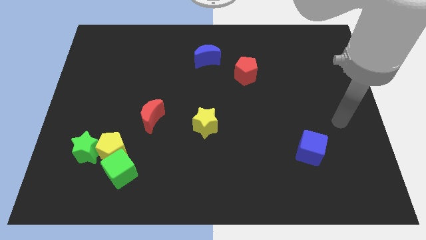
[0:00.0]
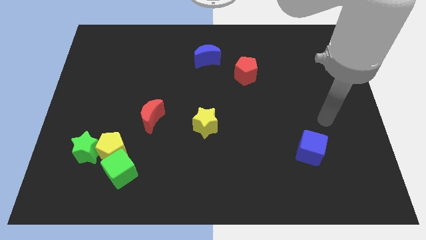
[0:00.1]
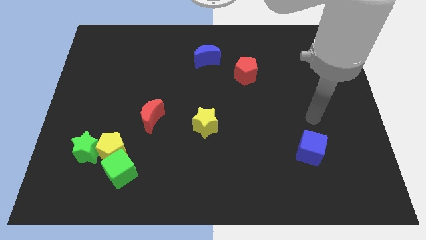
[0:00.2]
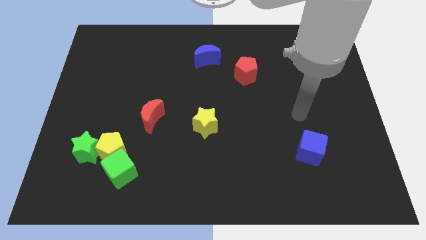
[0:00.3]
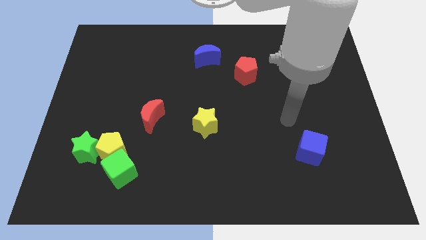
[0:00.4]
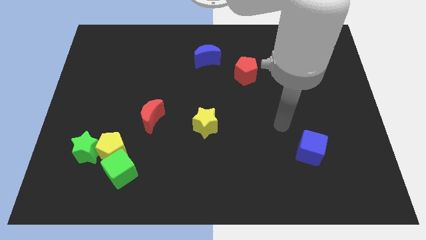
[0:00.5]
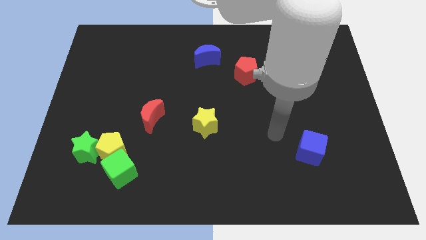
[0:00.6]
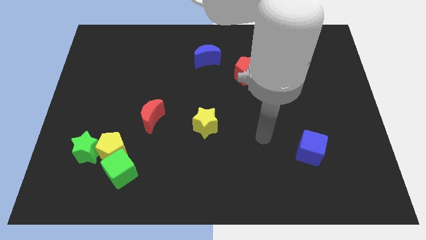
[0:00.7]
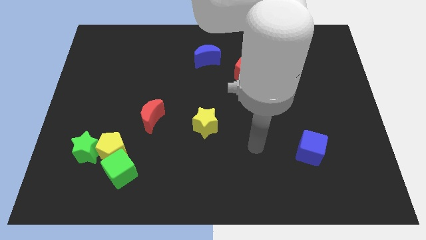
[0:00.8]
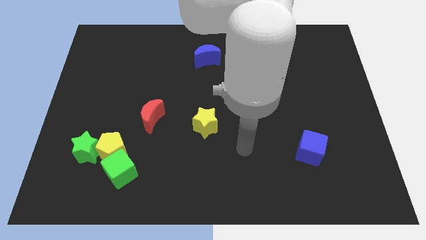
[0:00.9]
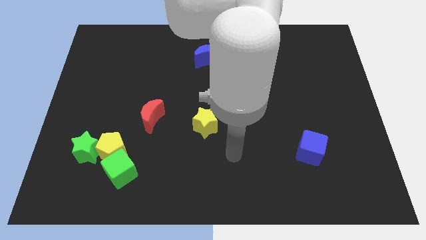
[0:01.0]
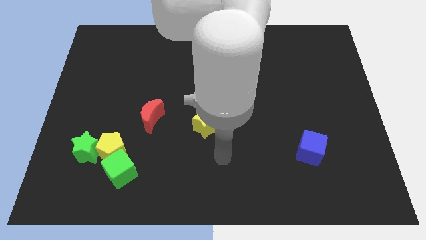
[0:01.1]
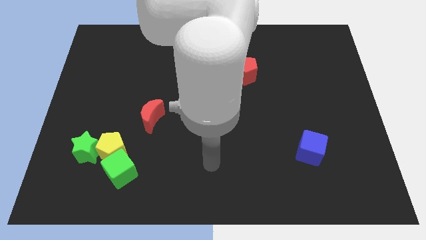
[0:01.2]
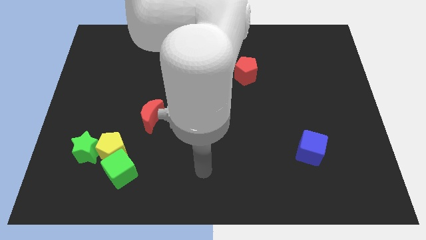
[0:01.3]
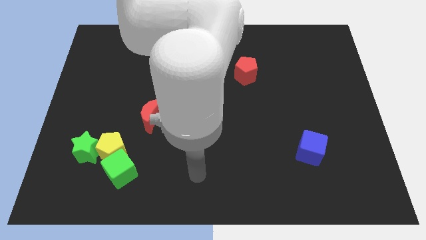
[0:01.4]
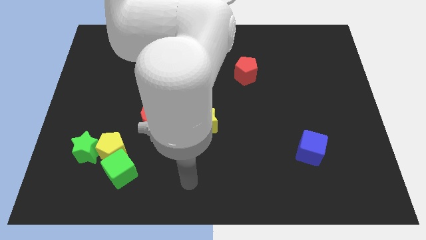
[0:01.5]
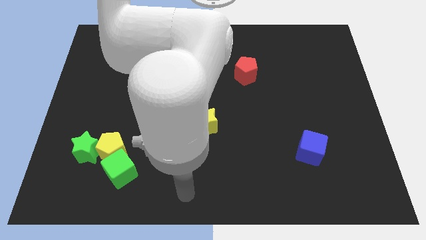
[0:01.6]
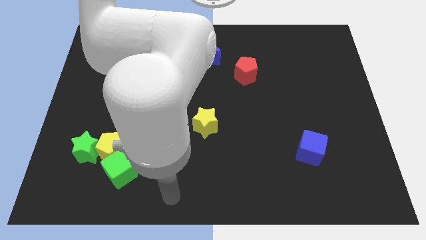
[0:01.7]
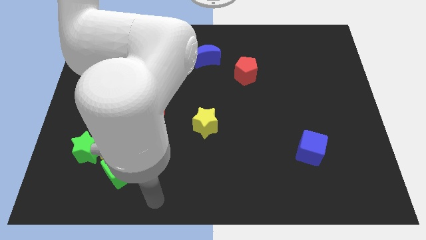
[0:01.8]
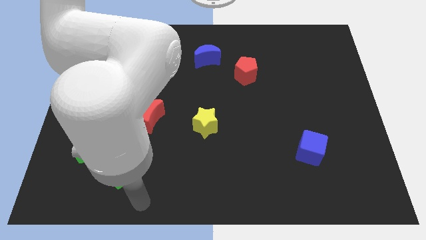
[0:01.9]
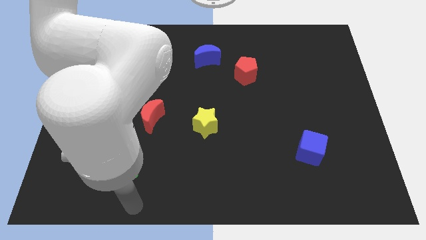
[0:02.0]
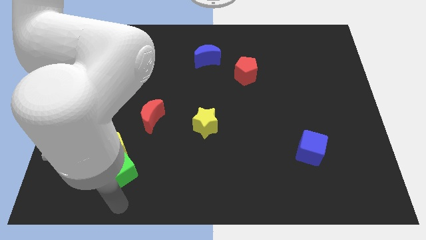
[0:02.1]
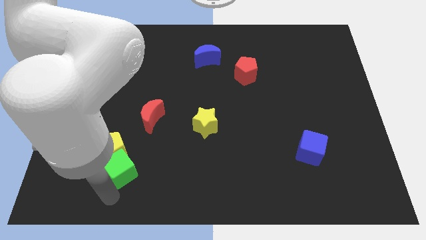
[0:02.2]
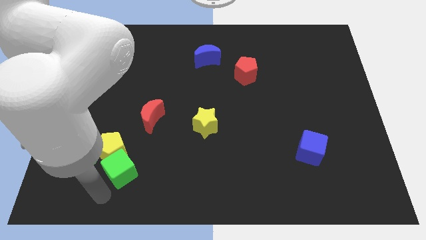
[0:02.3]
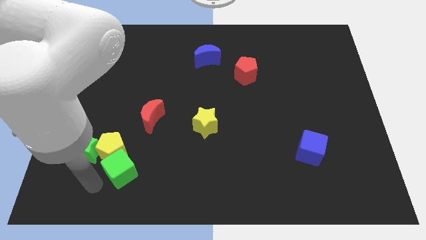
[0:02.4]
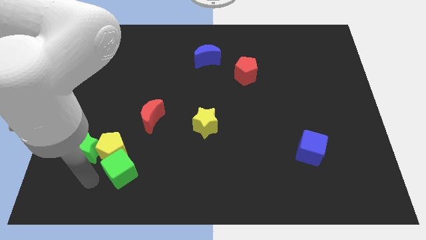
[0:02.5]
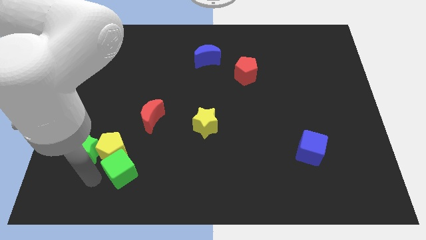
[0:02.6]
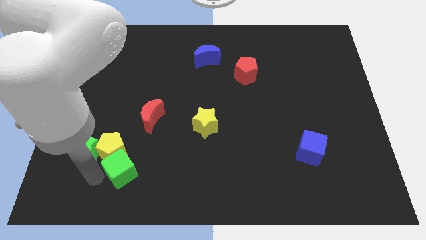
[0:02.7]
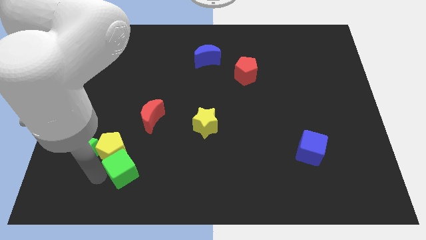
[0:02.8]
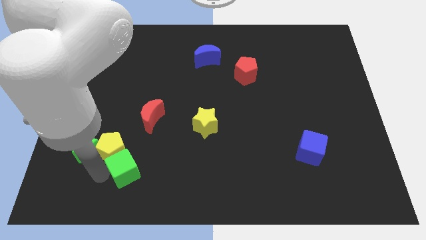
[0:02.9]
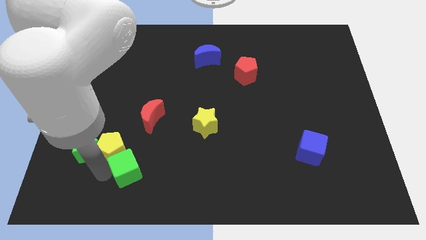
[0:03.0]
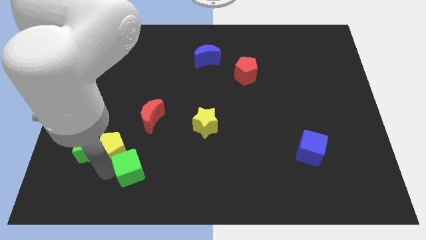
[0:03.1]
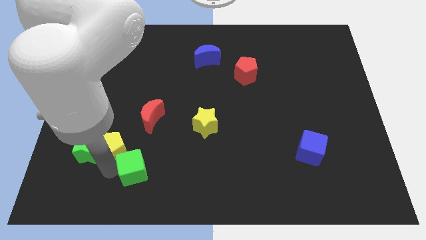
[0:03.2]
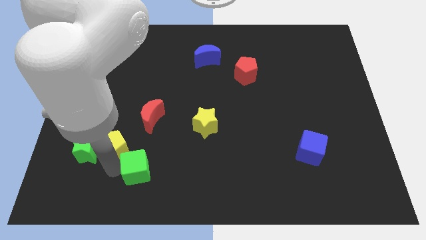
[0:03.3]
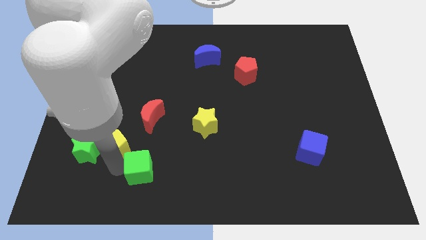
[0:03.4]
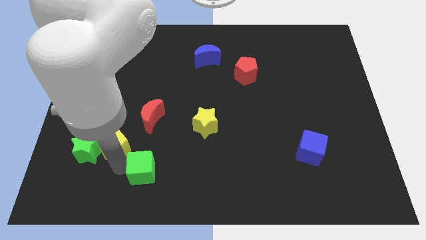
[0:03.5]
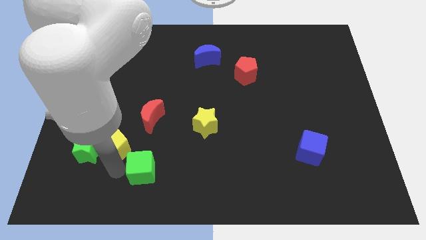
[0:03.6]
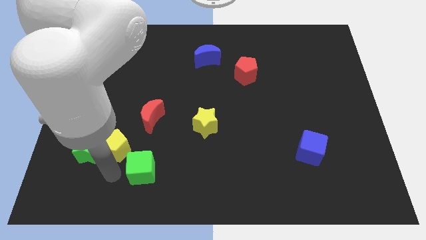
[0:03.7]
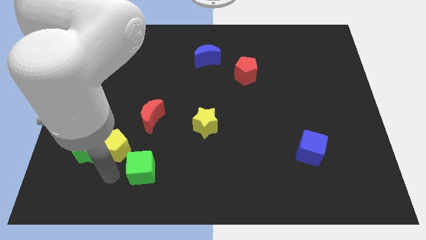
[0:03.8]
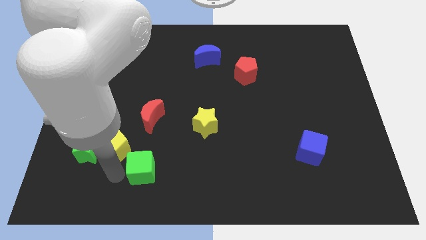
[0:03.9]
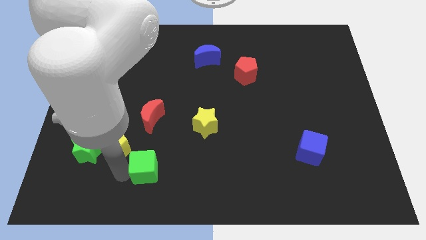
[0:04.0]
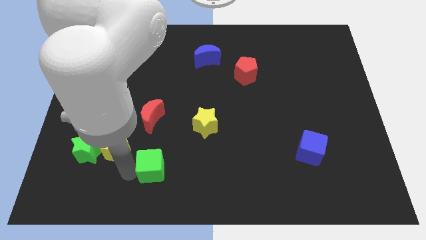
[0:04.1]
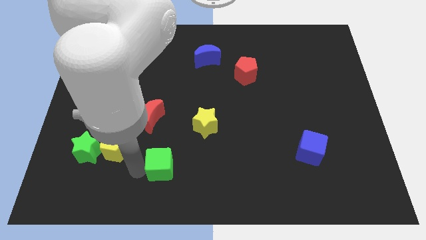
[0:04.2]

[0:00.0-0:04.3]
slide the green cube a little bit to the right

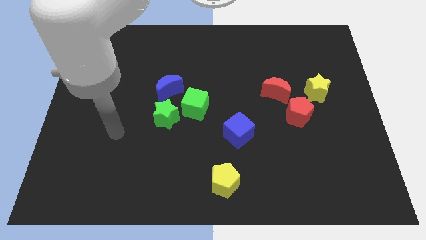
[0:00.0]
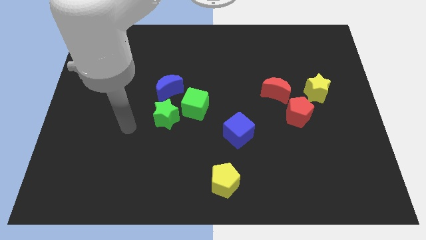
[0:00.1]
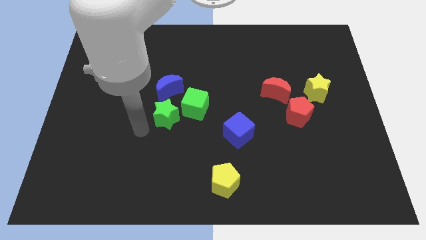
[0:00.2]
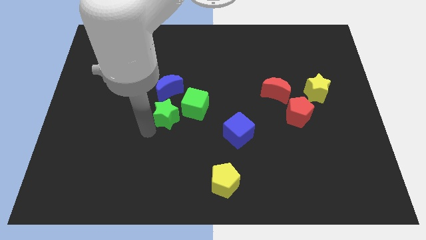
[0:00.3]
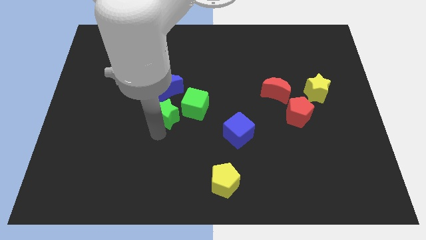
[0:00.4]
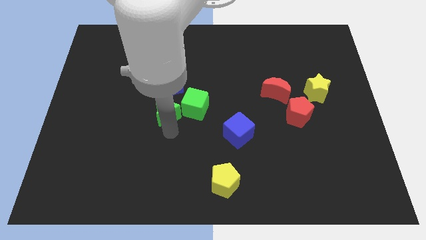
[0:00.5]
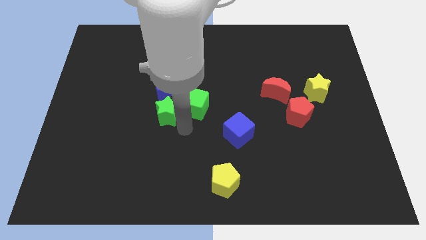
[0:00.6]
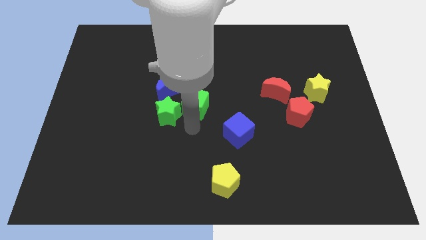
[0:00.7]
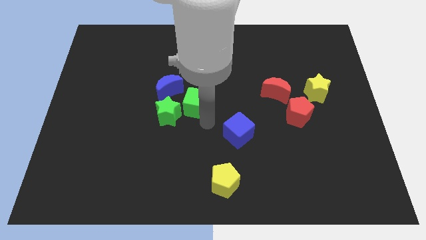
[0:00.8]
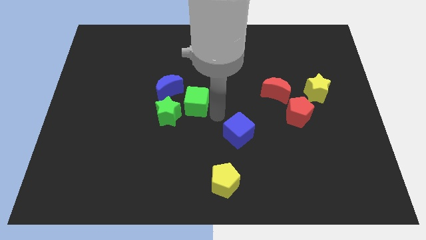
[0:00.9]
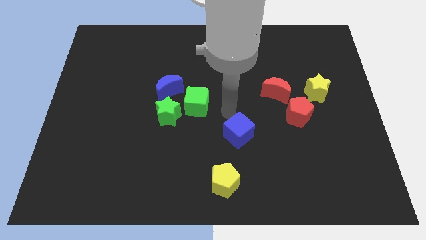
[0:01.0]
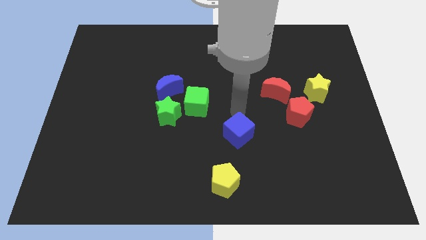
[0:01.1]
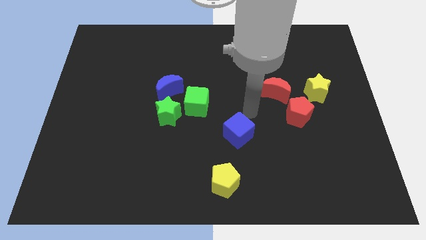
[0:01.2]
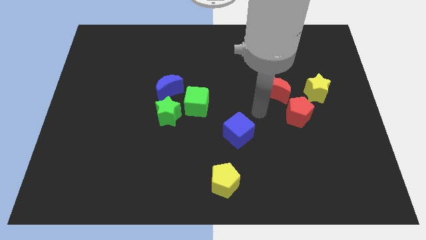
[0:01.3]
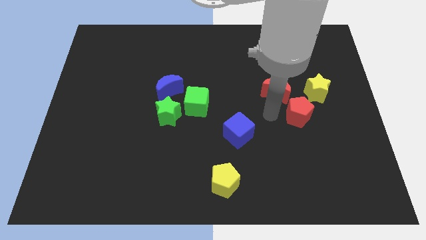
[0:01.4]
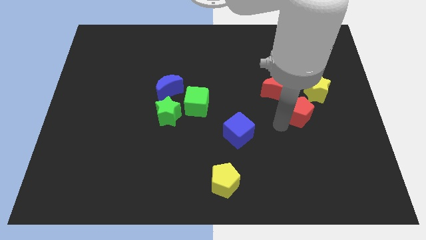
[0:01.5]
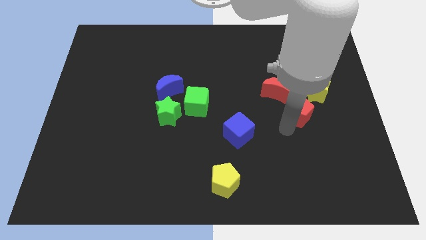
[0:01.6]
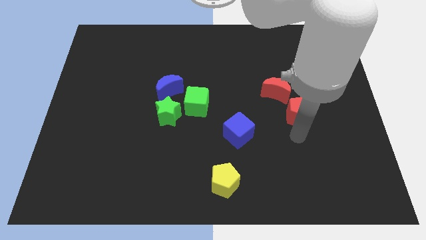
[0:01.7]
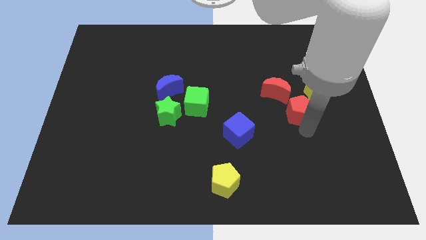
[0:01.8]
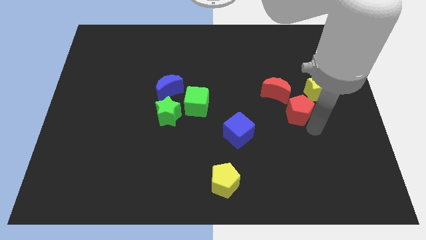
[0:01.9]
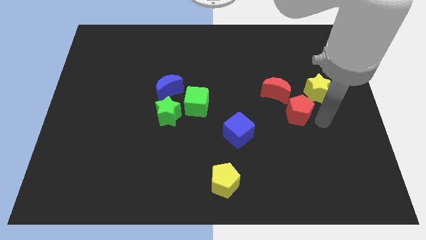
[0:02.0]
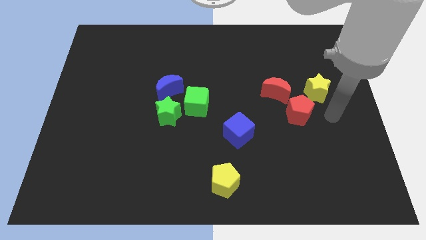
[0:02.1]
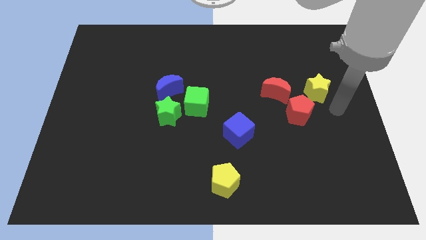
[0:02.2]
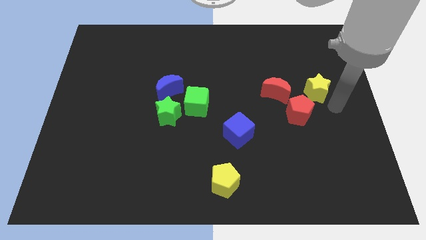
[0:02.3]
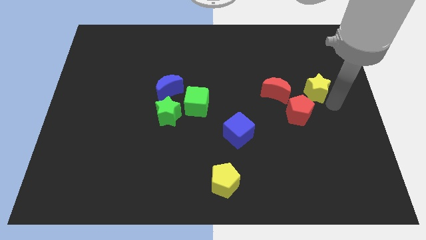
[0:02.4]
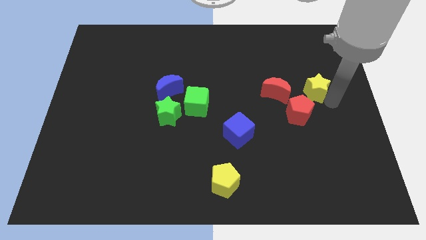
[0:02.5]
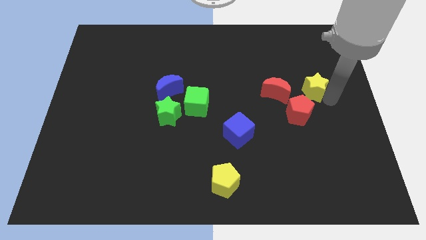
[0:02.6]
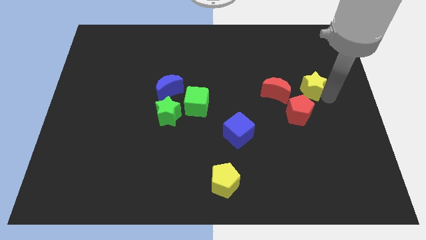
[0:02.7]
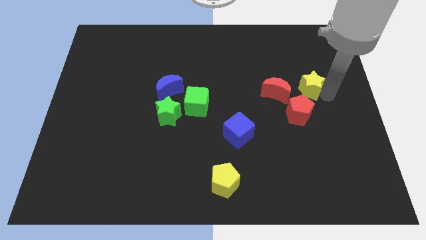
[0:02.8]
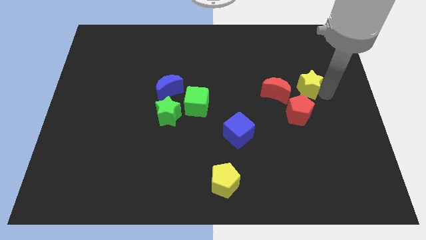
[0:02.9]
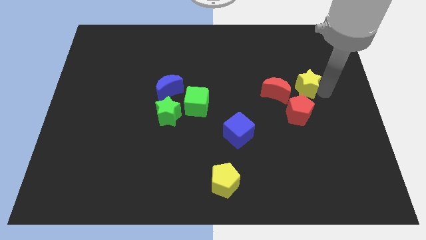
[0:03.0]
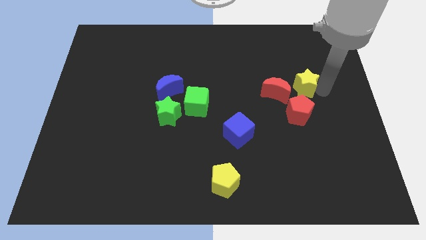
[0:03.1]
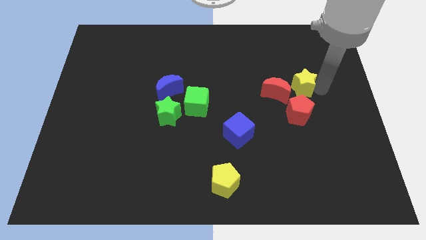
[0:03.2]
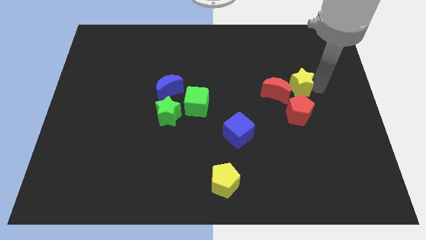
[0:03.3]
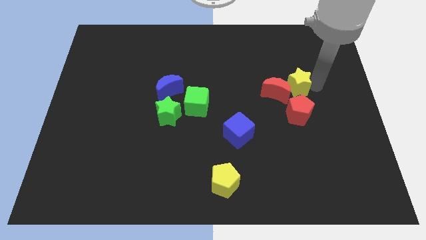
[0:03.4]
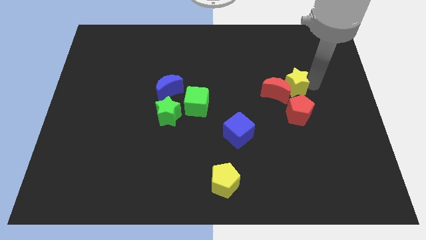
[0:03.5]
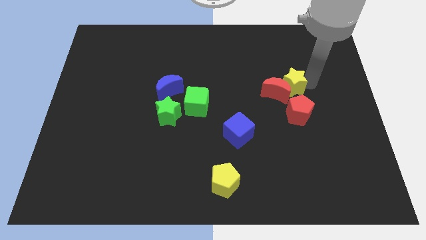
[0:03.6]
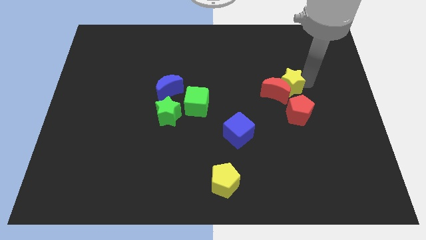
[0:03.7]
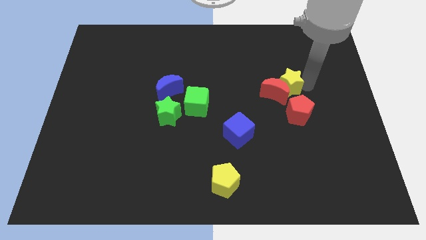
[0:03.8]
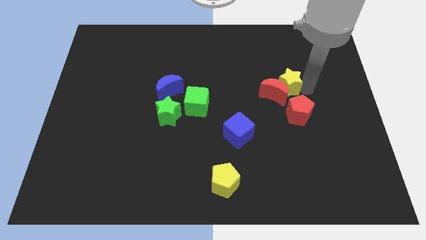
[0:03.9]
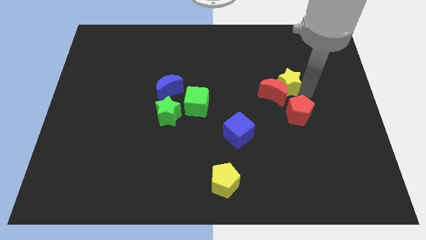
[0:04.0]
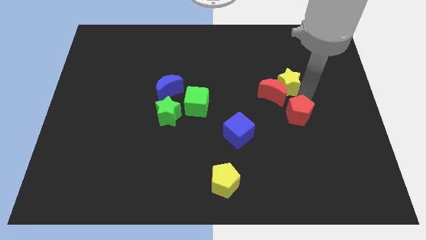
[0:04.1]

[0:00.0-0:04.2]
slide the yellow star to the left a bit

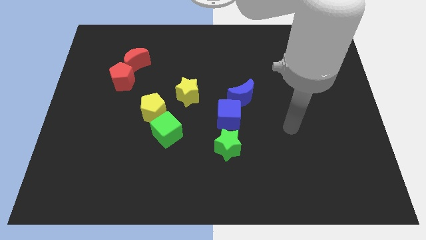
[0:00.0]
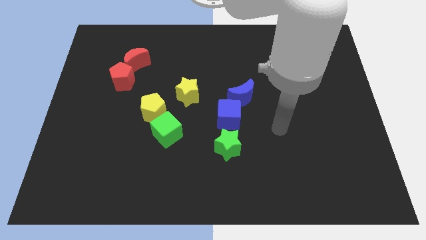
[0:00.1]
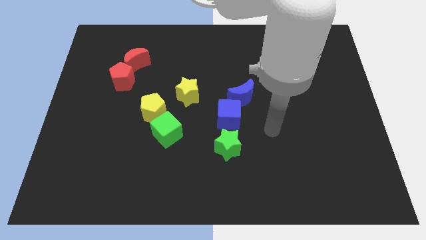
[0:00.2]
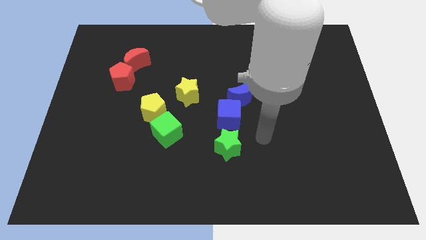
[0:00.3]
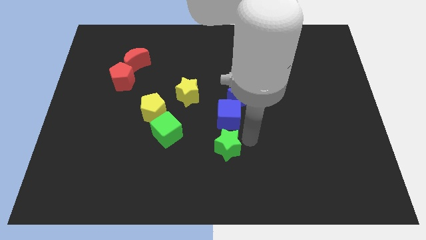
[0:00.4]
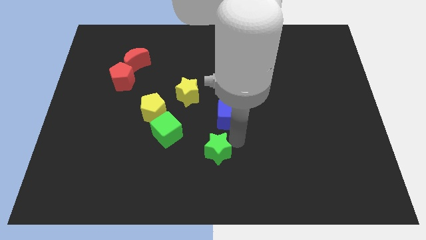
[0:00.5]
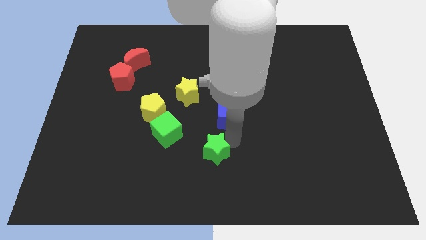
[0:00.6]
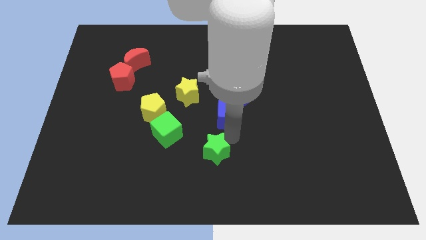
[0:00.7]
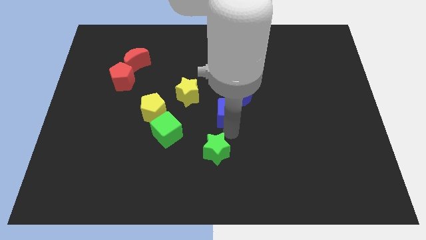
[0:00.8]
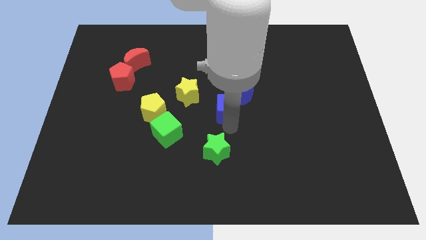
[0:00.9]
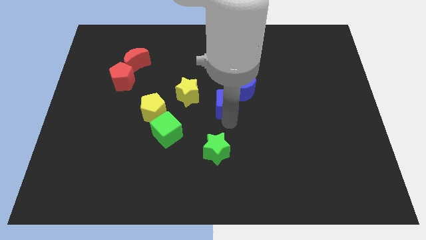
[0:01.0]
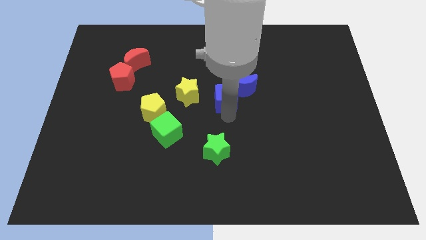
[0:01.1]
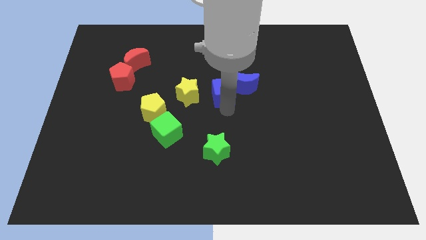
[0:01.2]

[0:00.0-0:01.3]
slide the blue cube slightly upwards
